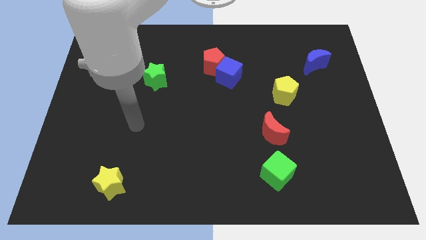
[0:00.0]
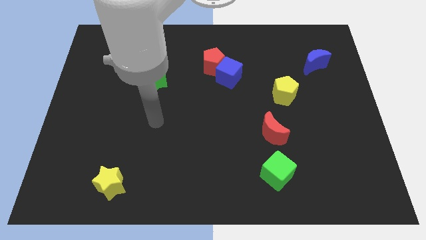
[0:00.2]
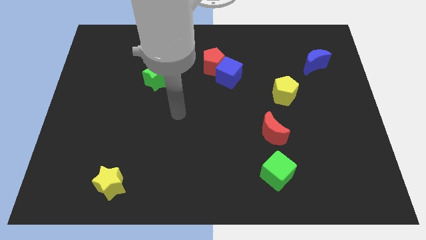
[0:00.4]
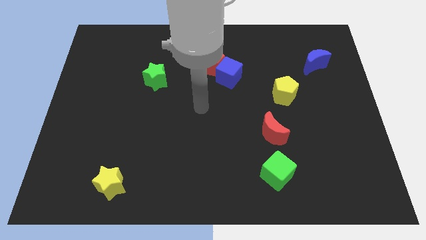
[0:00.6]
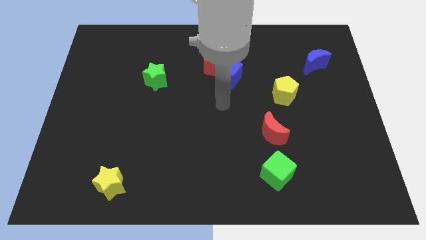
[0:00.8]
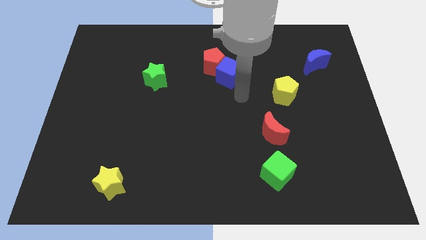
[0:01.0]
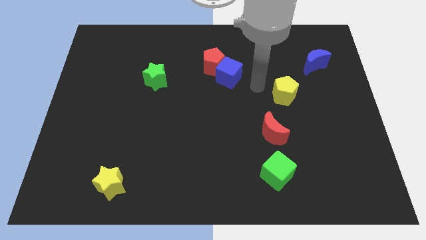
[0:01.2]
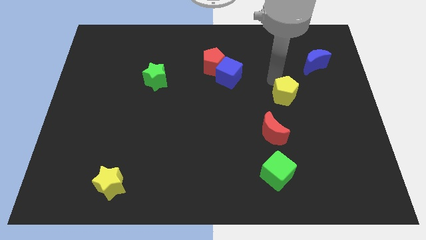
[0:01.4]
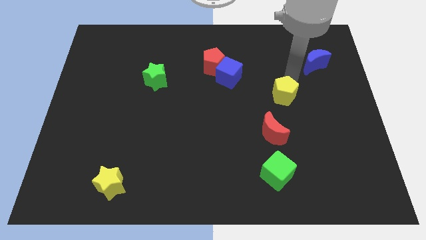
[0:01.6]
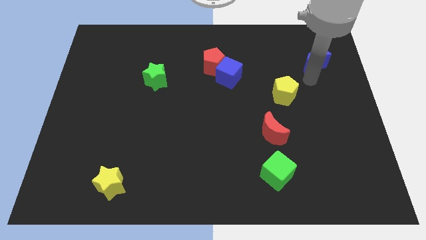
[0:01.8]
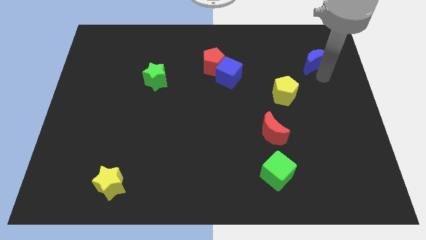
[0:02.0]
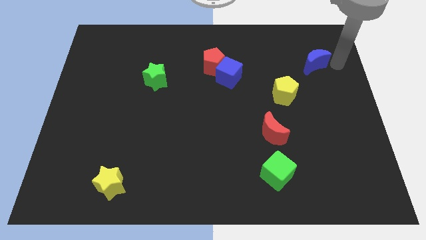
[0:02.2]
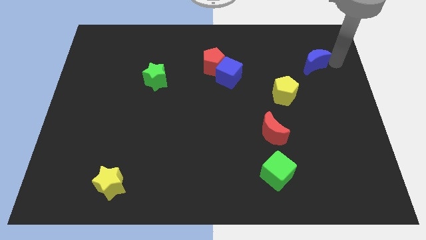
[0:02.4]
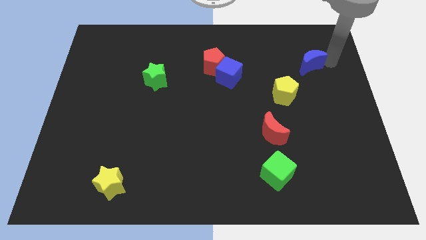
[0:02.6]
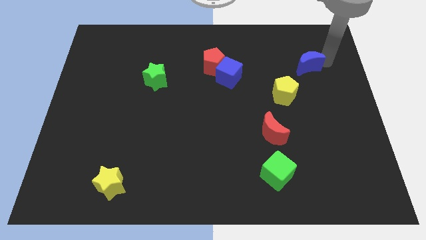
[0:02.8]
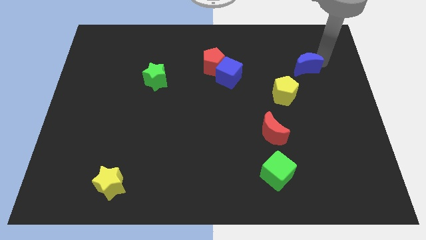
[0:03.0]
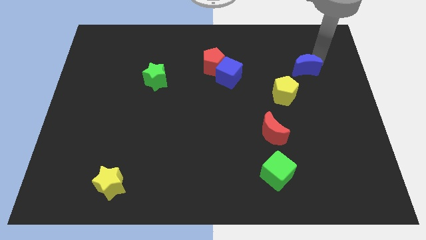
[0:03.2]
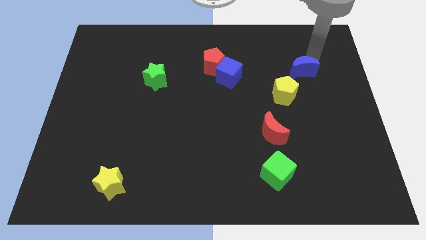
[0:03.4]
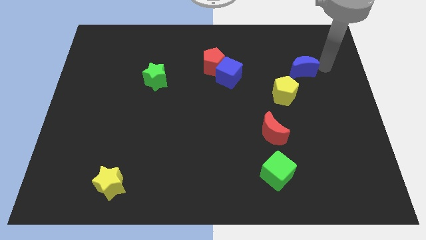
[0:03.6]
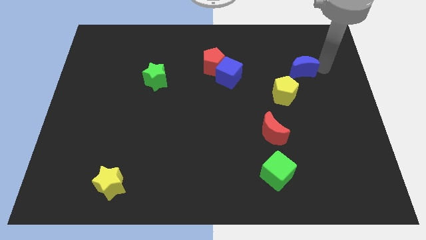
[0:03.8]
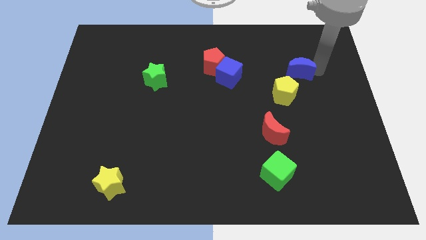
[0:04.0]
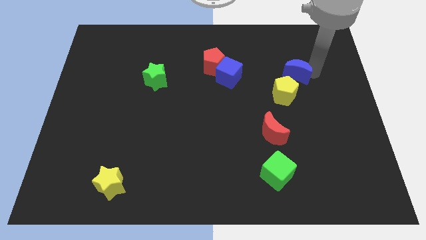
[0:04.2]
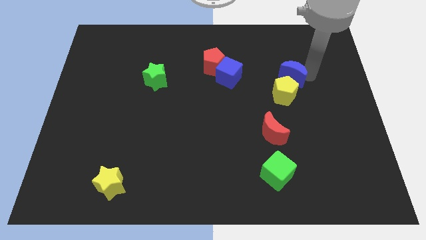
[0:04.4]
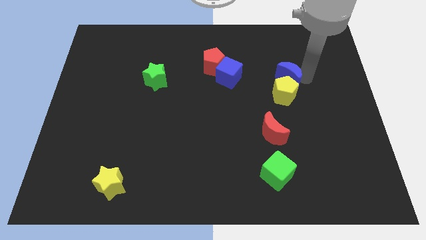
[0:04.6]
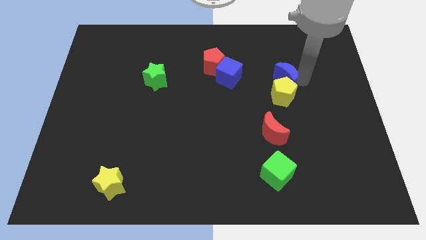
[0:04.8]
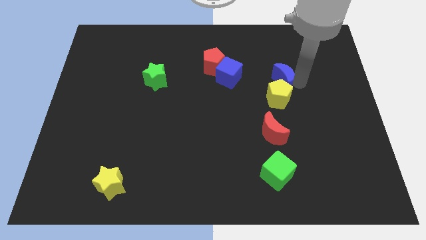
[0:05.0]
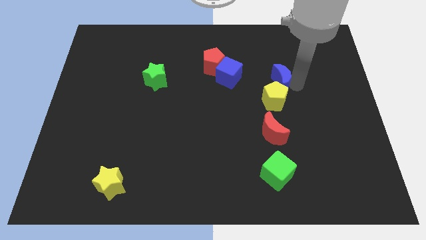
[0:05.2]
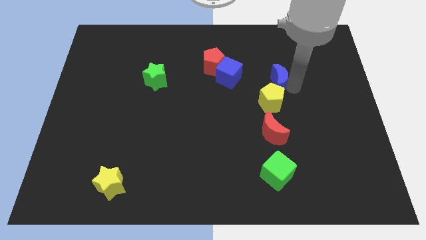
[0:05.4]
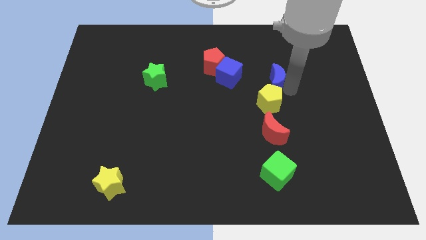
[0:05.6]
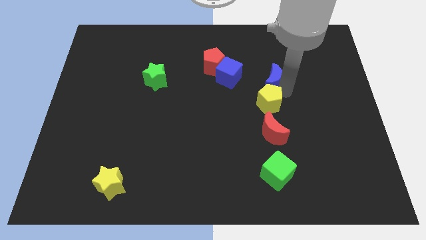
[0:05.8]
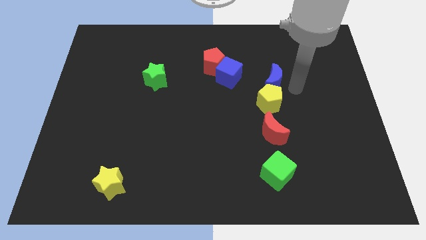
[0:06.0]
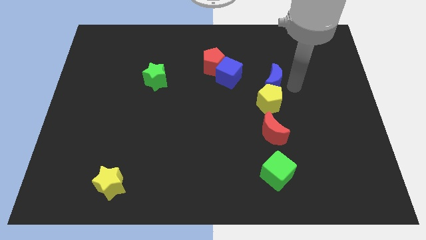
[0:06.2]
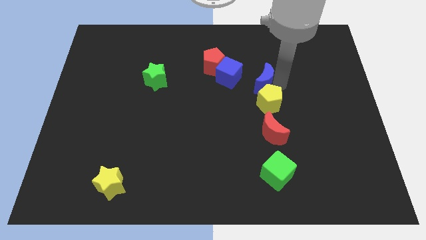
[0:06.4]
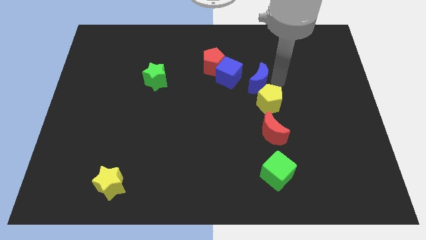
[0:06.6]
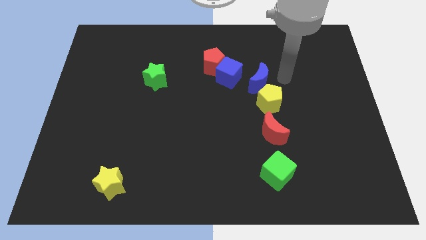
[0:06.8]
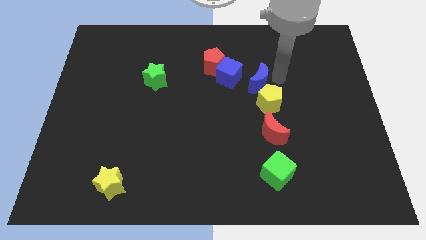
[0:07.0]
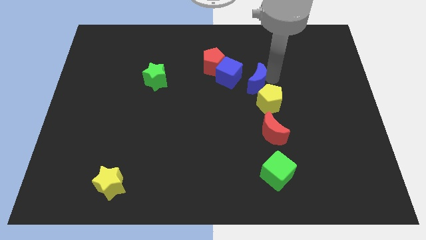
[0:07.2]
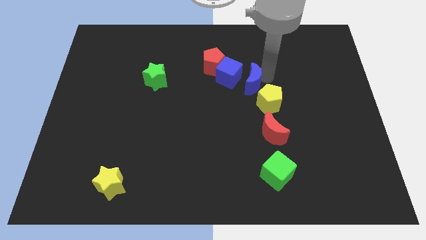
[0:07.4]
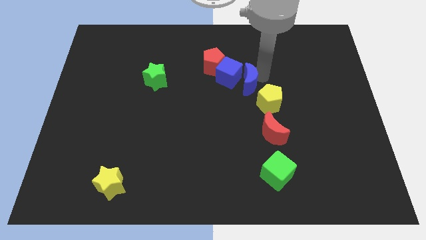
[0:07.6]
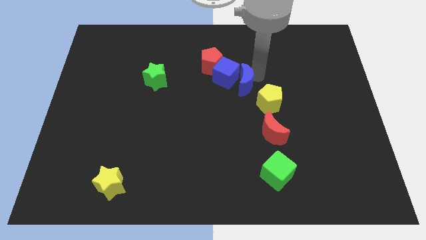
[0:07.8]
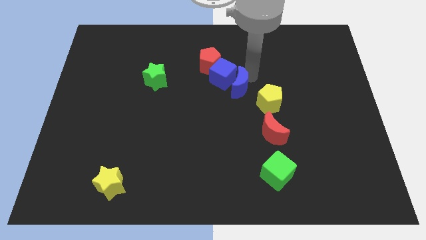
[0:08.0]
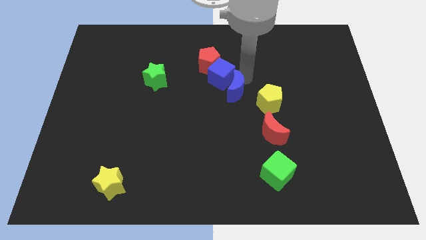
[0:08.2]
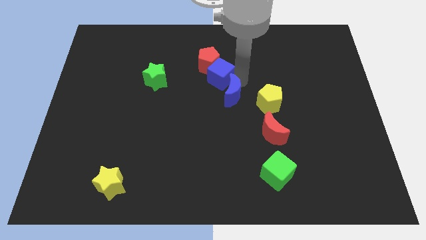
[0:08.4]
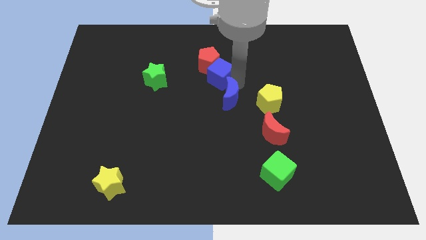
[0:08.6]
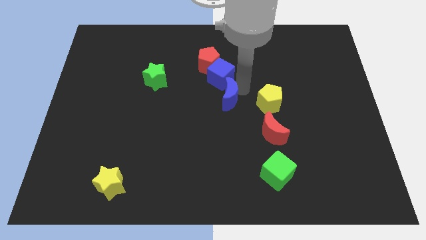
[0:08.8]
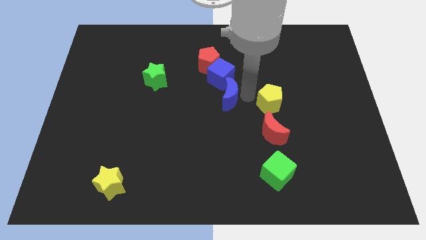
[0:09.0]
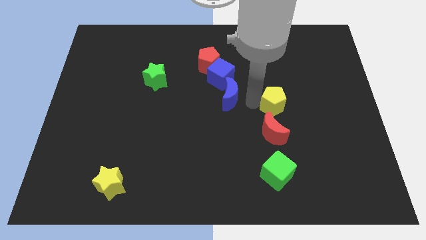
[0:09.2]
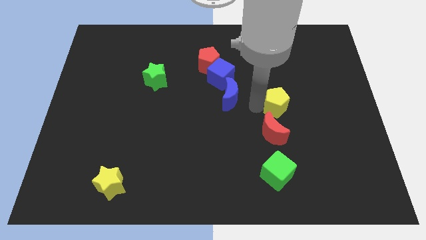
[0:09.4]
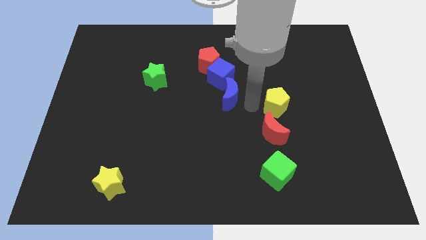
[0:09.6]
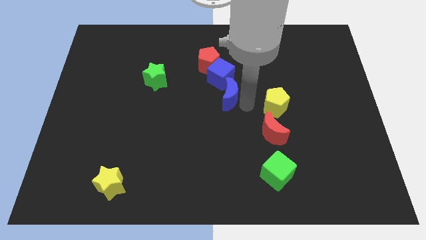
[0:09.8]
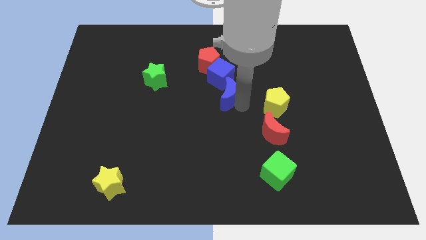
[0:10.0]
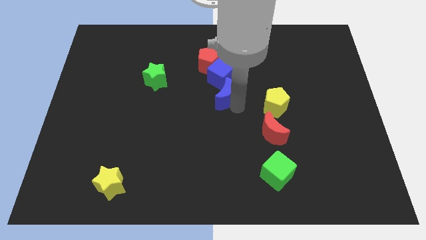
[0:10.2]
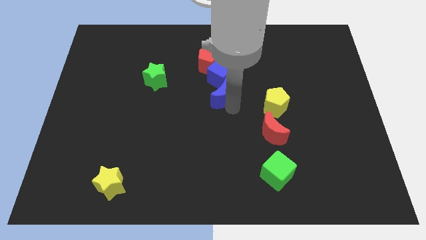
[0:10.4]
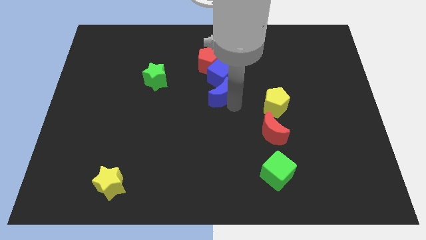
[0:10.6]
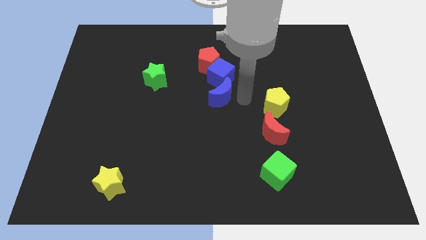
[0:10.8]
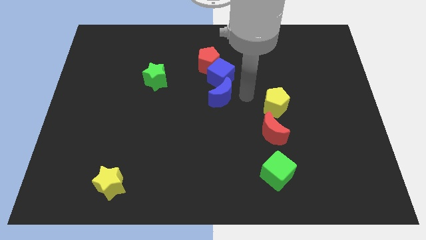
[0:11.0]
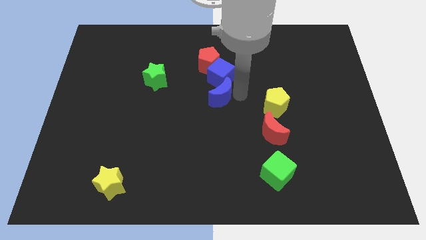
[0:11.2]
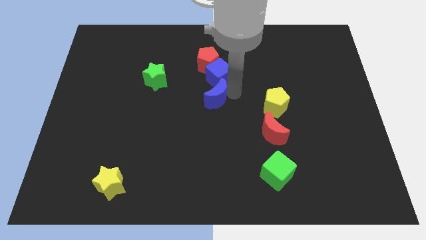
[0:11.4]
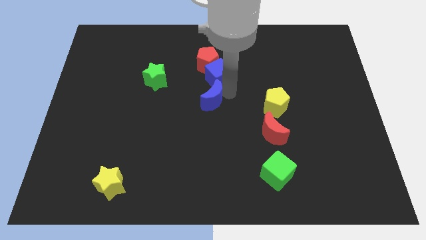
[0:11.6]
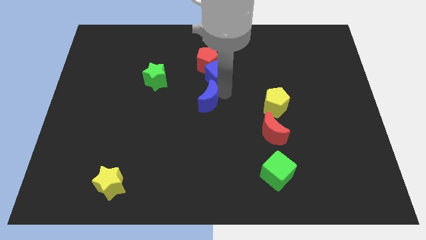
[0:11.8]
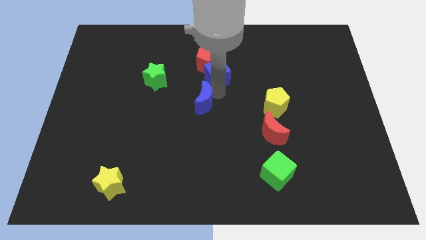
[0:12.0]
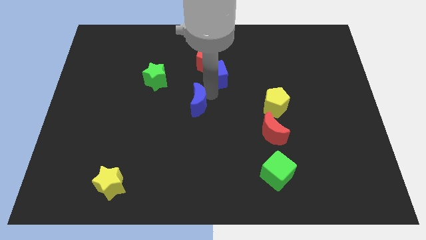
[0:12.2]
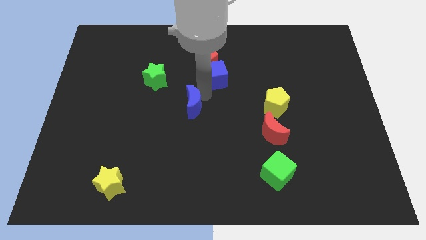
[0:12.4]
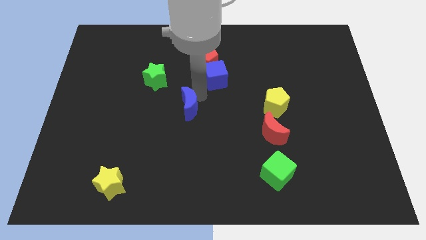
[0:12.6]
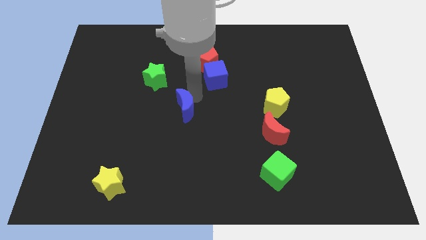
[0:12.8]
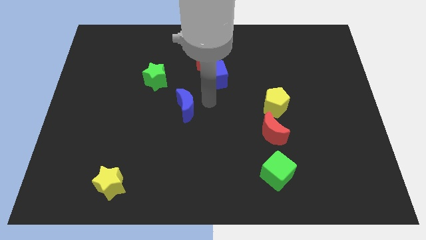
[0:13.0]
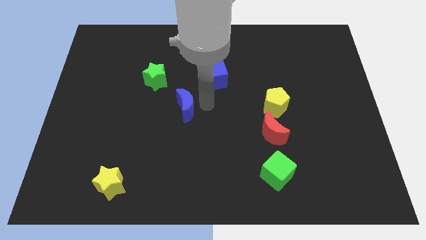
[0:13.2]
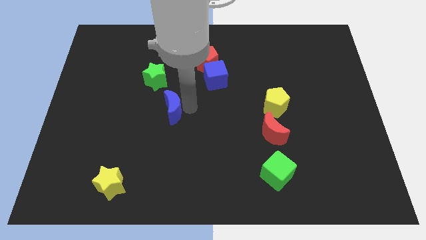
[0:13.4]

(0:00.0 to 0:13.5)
slide the blue moon to the bottom of the green star

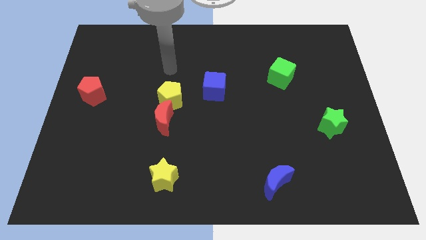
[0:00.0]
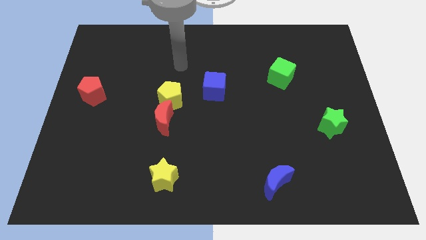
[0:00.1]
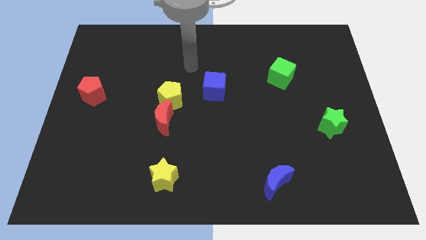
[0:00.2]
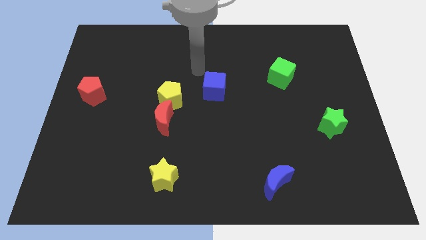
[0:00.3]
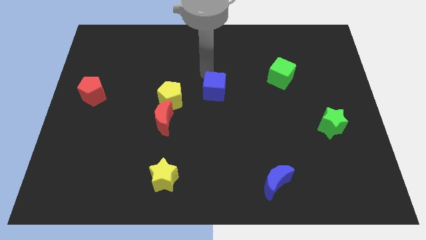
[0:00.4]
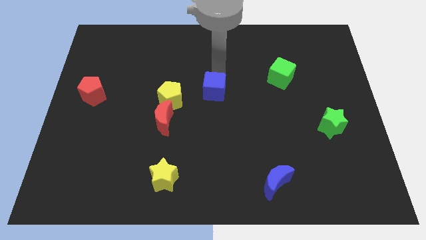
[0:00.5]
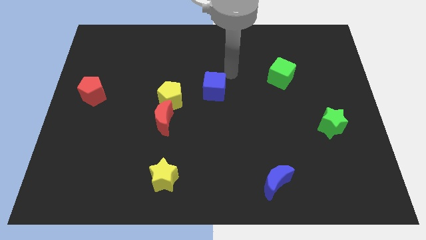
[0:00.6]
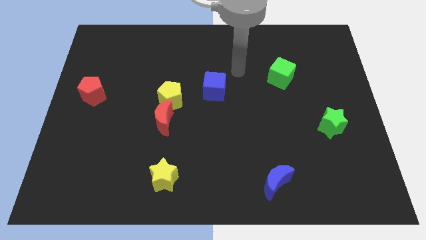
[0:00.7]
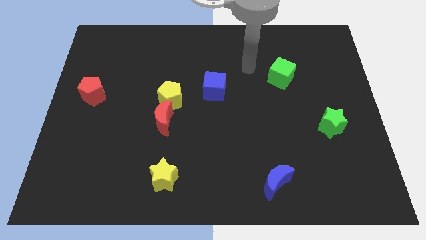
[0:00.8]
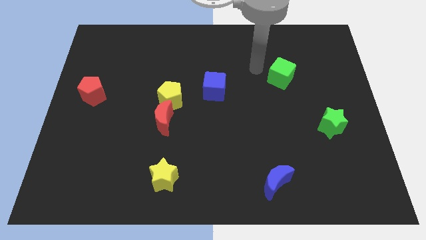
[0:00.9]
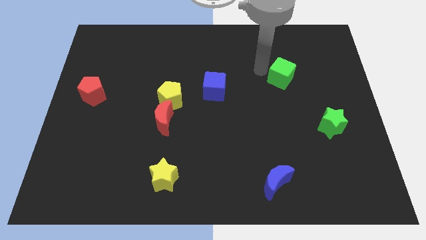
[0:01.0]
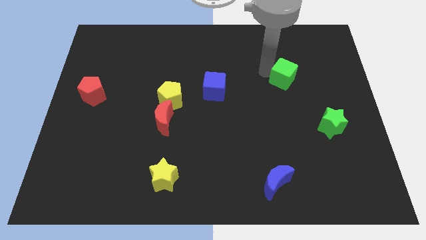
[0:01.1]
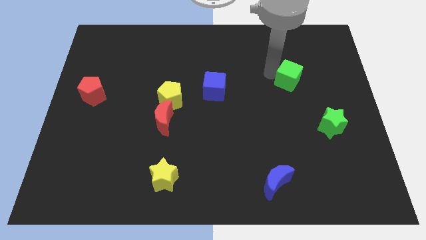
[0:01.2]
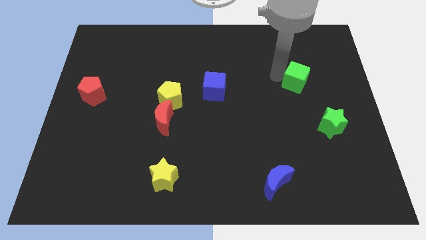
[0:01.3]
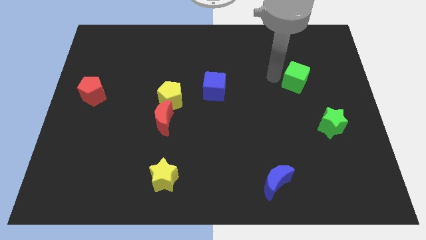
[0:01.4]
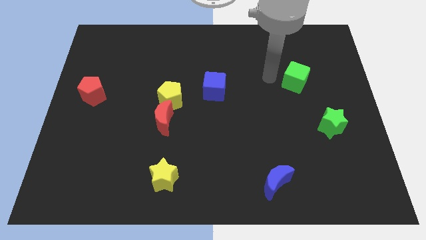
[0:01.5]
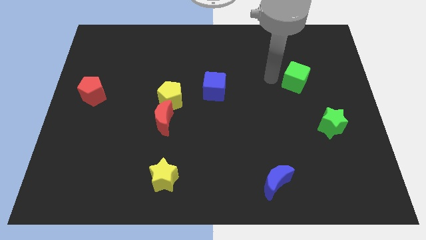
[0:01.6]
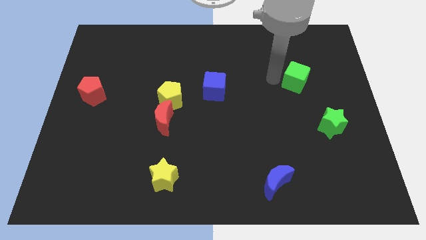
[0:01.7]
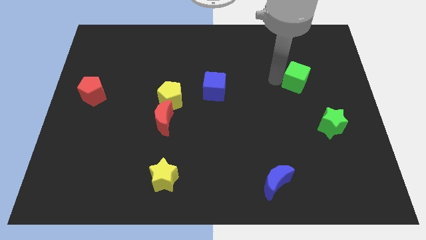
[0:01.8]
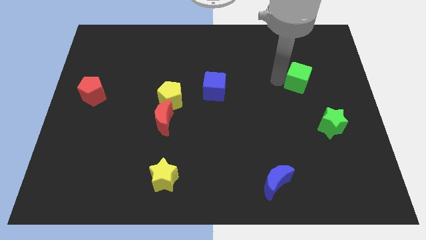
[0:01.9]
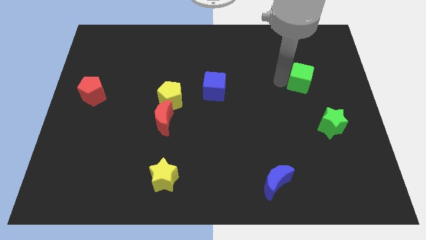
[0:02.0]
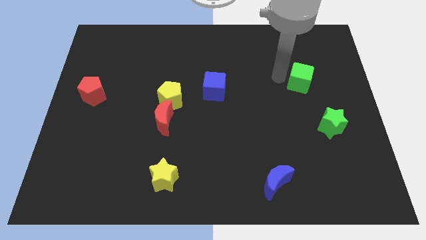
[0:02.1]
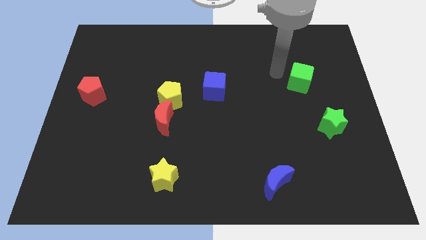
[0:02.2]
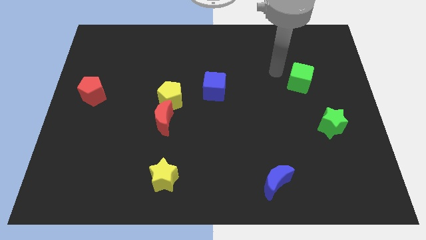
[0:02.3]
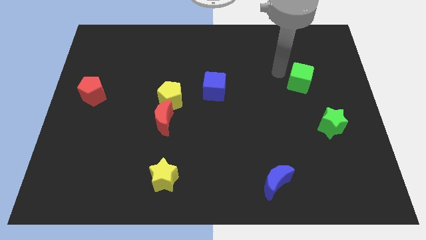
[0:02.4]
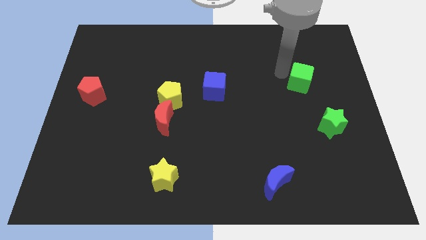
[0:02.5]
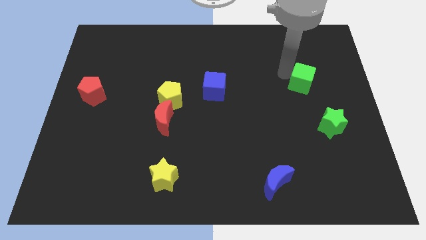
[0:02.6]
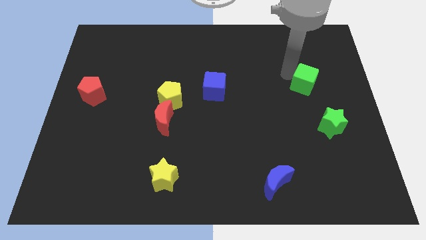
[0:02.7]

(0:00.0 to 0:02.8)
slide the green cube to the top side of the green star
